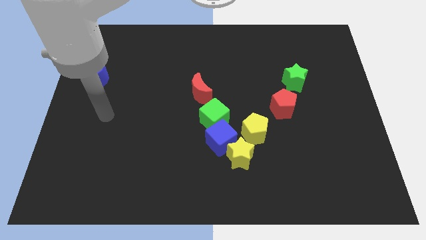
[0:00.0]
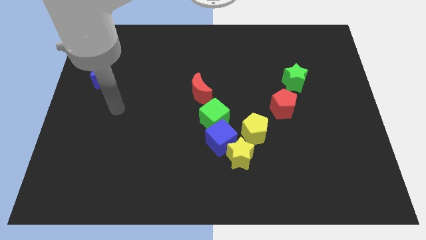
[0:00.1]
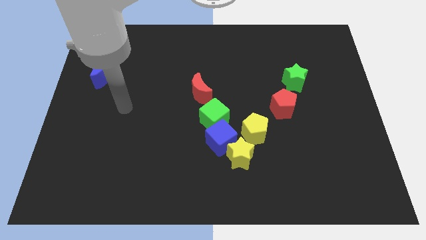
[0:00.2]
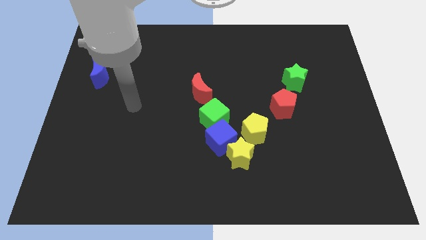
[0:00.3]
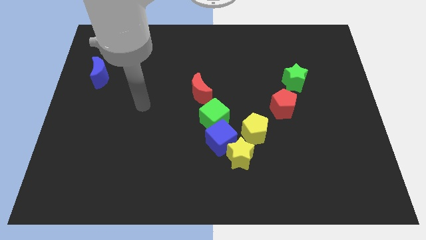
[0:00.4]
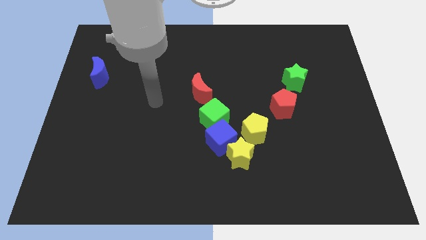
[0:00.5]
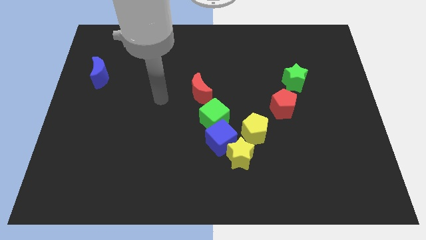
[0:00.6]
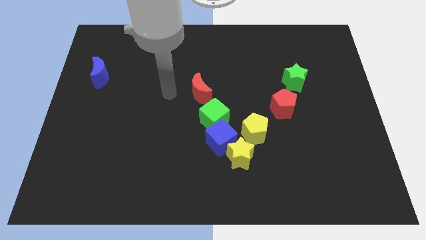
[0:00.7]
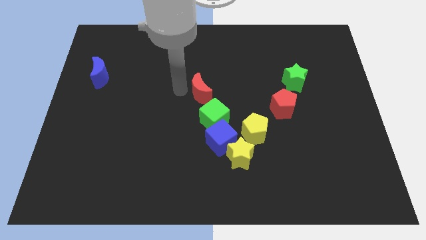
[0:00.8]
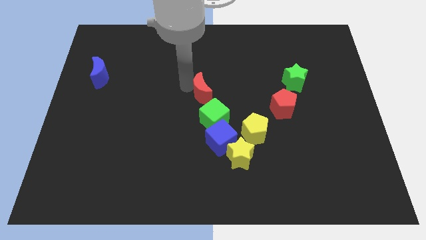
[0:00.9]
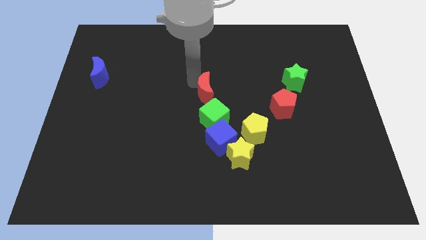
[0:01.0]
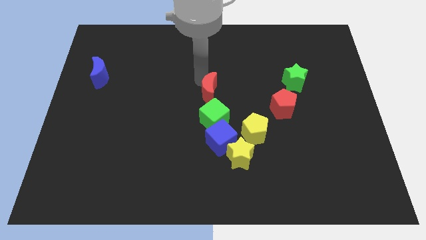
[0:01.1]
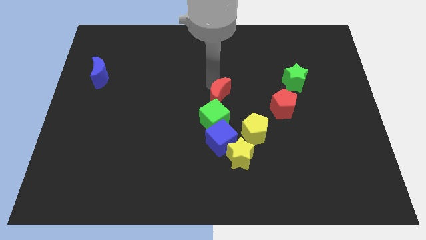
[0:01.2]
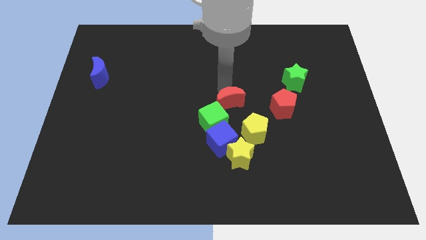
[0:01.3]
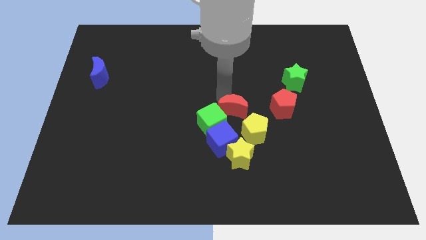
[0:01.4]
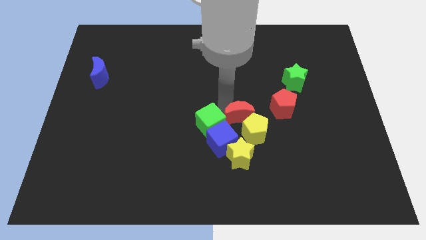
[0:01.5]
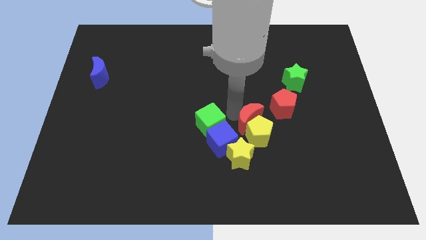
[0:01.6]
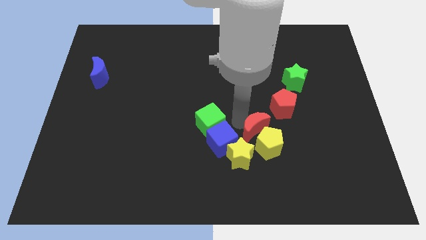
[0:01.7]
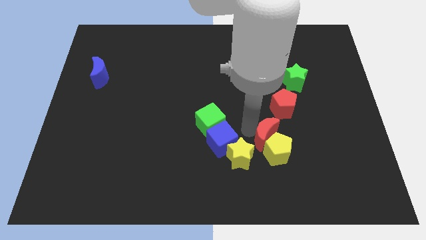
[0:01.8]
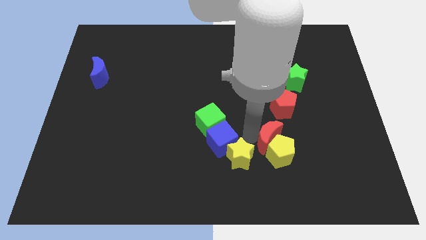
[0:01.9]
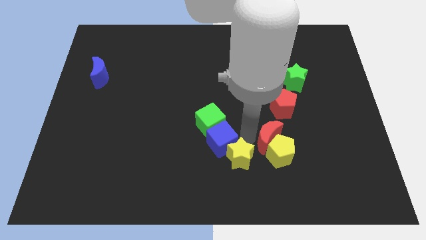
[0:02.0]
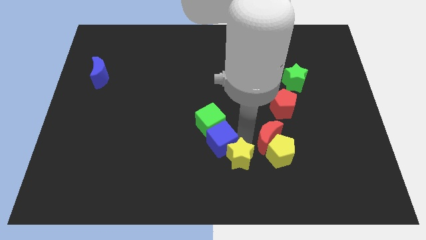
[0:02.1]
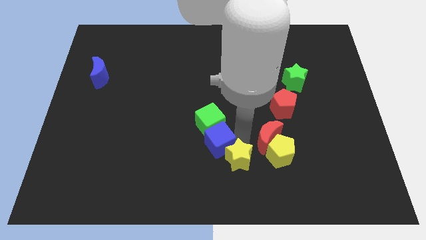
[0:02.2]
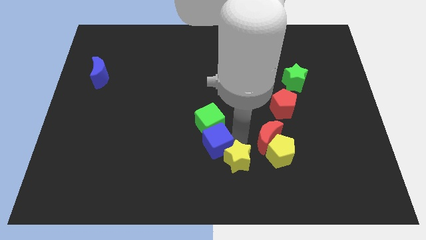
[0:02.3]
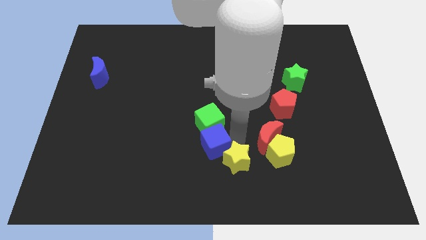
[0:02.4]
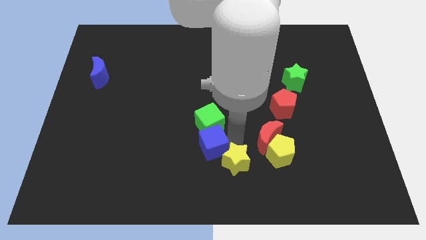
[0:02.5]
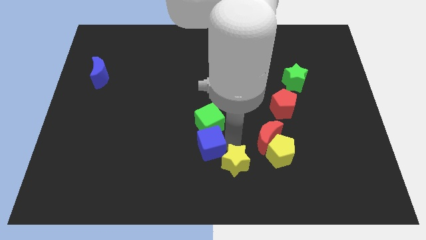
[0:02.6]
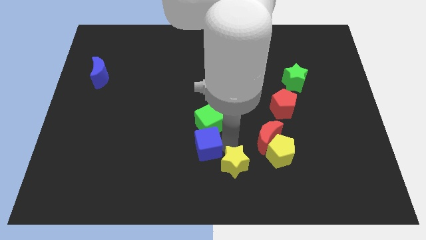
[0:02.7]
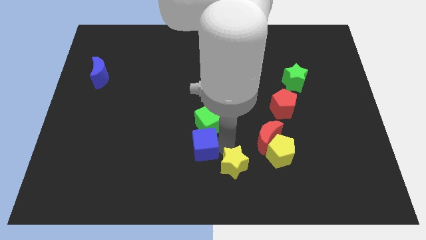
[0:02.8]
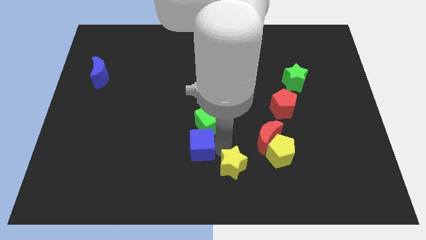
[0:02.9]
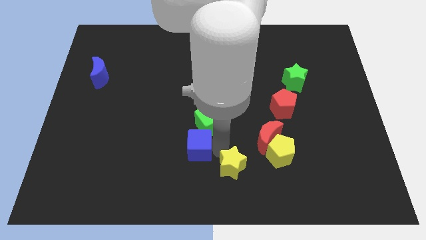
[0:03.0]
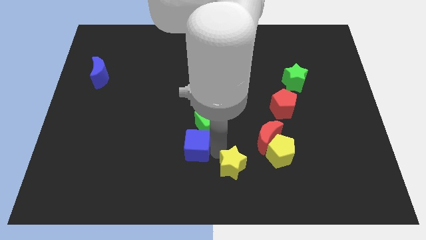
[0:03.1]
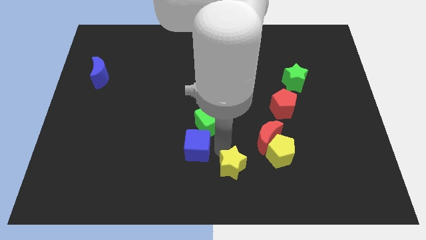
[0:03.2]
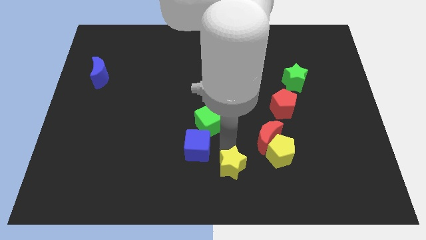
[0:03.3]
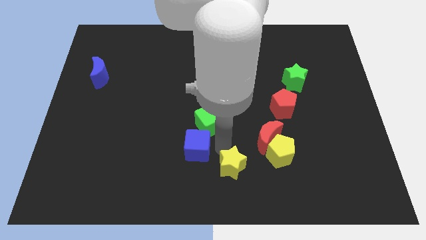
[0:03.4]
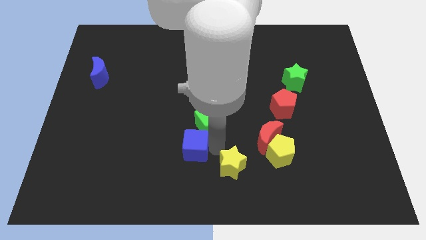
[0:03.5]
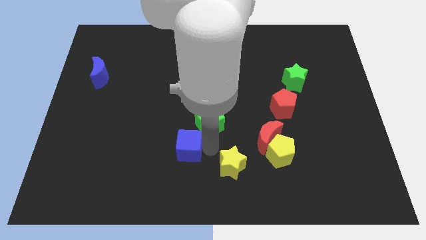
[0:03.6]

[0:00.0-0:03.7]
separate the blue cube from the group of blocks

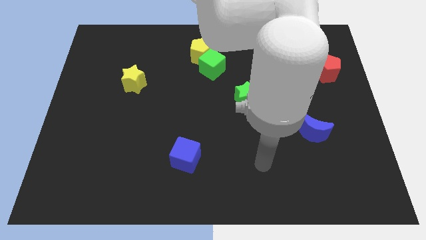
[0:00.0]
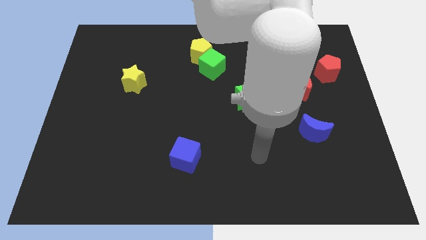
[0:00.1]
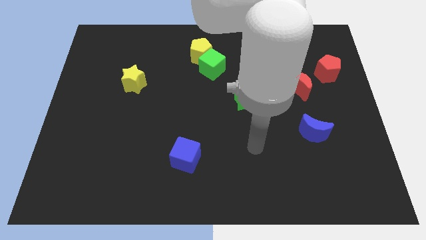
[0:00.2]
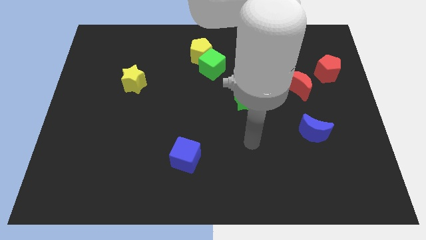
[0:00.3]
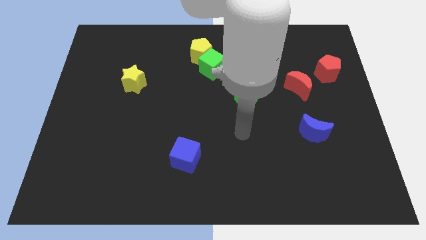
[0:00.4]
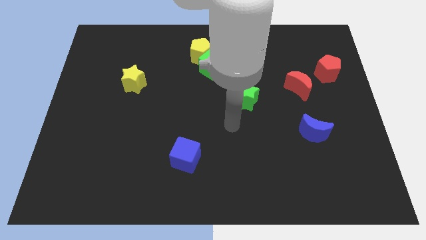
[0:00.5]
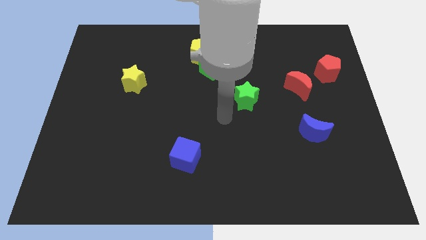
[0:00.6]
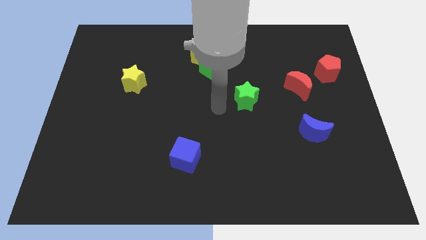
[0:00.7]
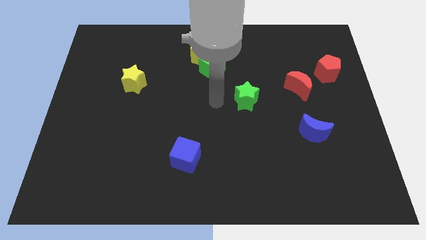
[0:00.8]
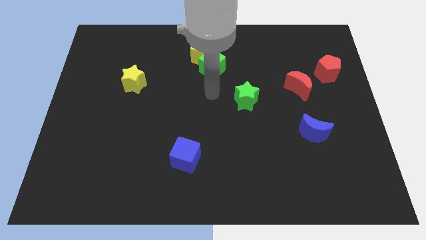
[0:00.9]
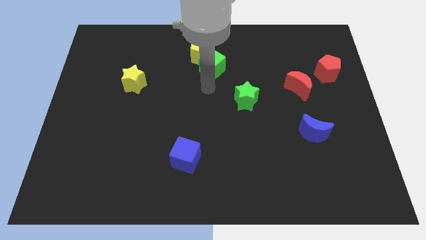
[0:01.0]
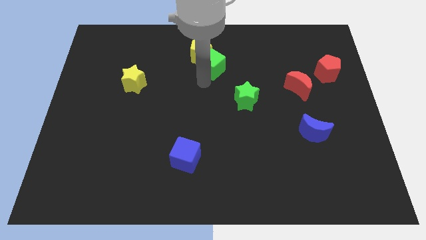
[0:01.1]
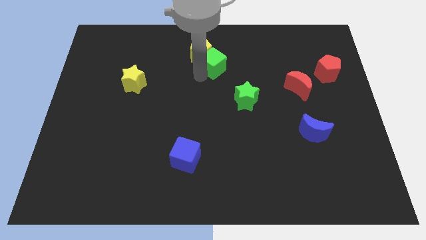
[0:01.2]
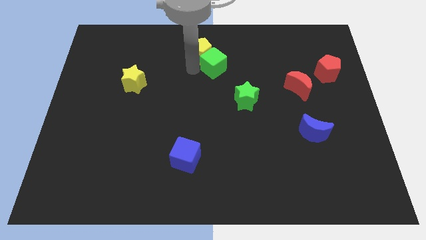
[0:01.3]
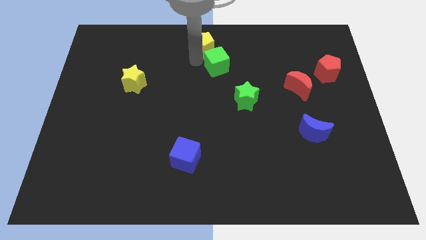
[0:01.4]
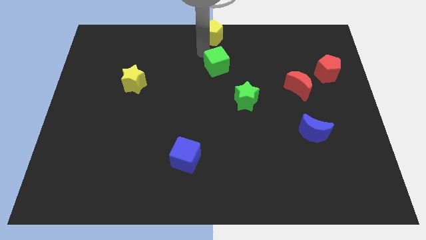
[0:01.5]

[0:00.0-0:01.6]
pull the green cube apart from the yellow pentagon

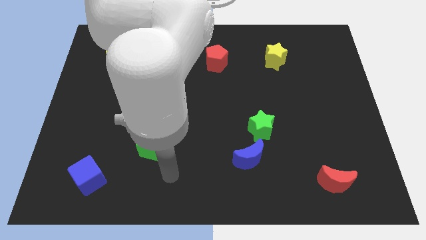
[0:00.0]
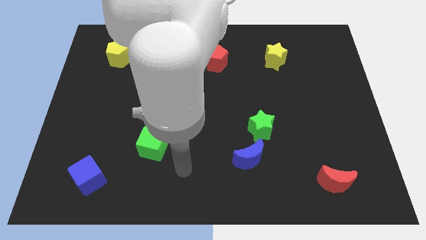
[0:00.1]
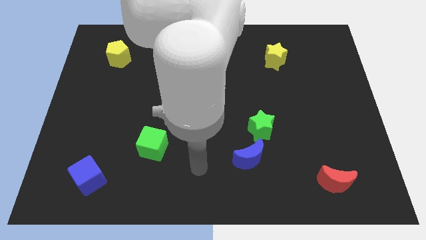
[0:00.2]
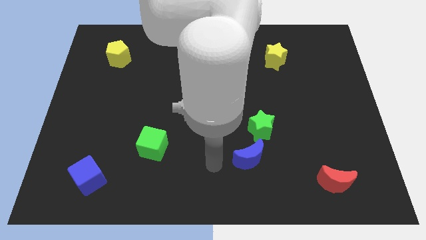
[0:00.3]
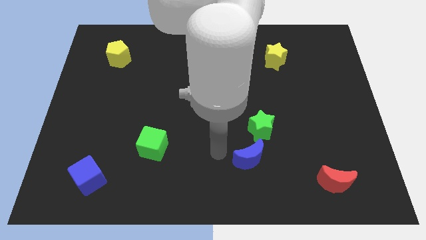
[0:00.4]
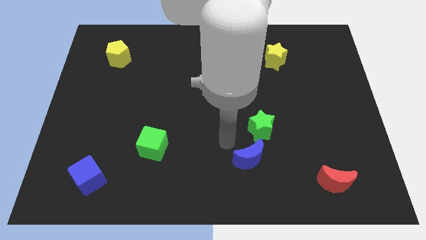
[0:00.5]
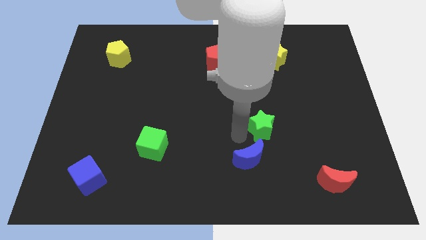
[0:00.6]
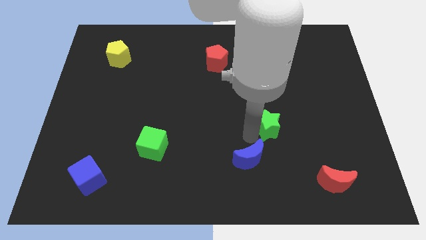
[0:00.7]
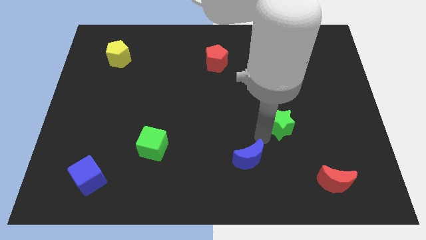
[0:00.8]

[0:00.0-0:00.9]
move the blue moon away from the green star

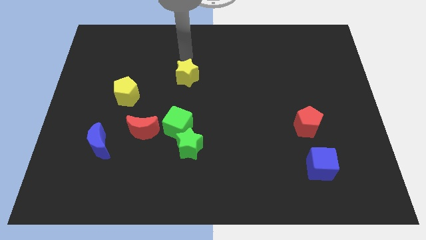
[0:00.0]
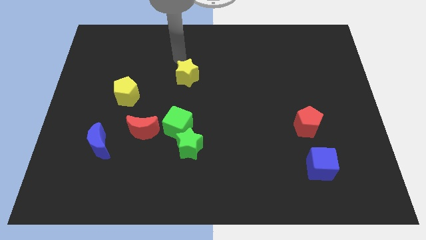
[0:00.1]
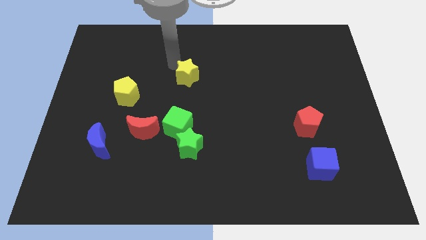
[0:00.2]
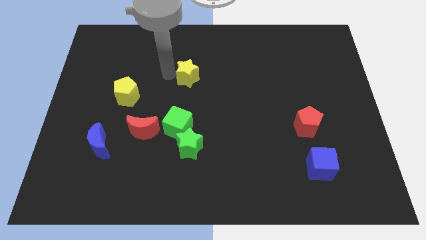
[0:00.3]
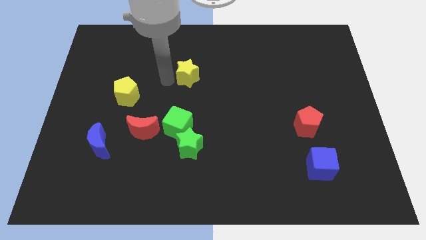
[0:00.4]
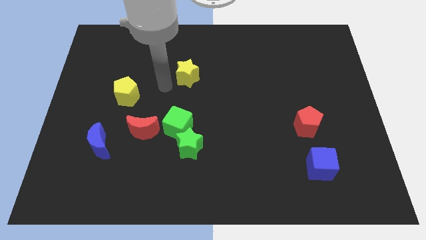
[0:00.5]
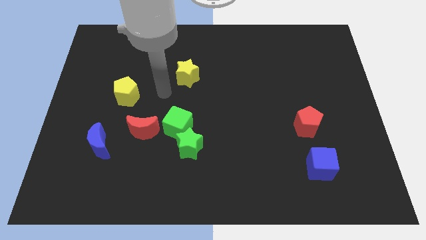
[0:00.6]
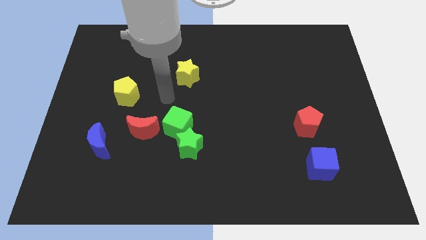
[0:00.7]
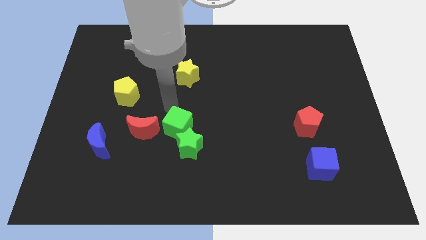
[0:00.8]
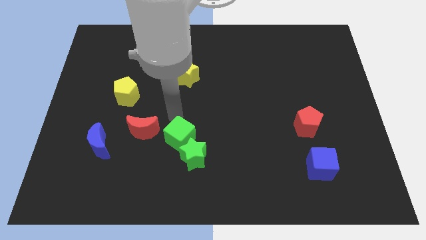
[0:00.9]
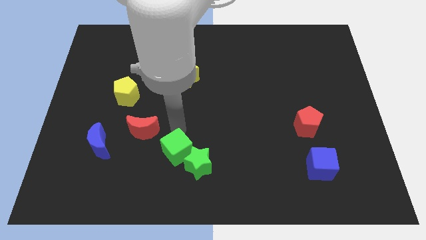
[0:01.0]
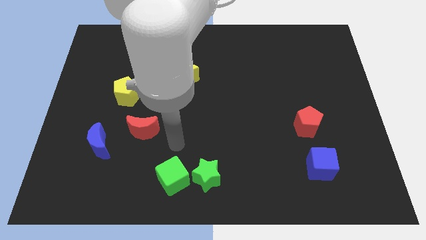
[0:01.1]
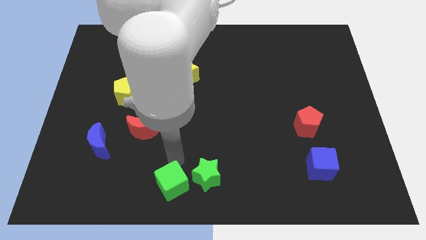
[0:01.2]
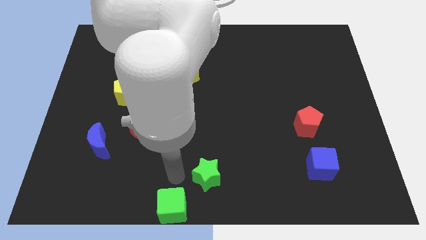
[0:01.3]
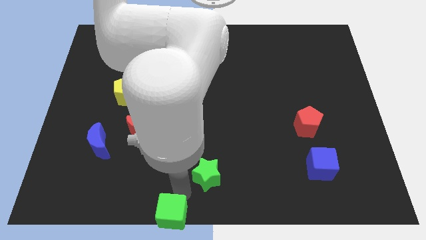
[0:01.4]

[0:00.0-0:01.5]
pull the green star apart from the green cube

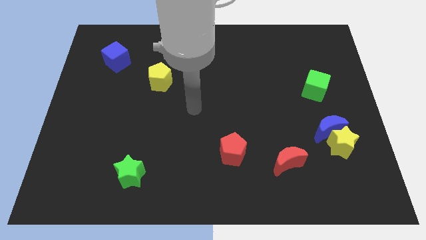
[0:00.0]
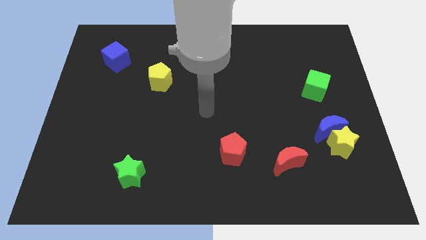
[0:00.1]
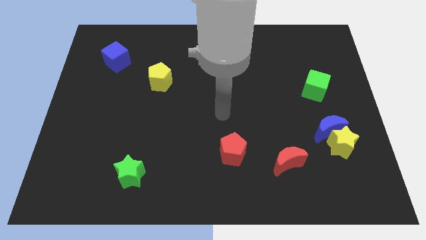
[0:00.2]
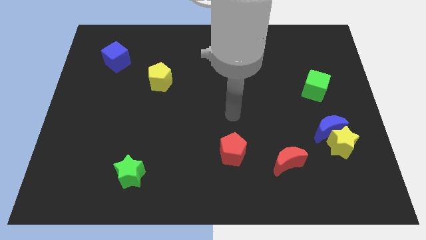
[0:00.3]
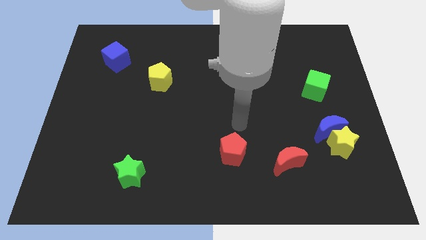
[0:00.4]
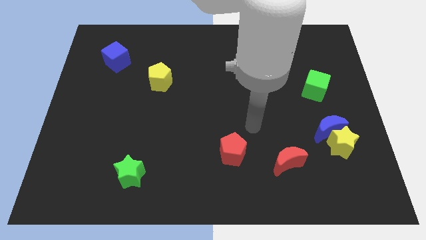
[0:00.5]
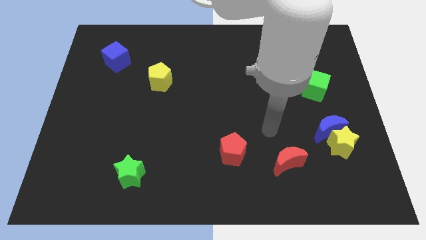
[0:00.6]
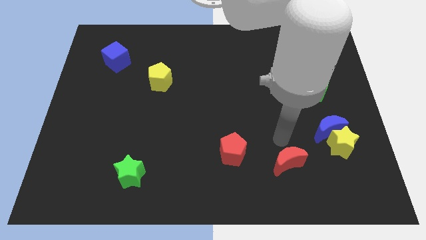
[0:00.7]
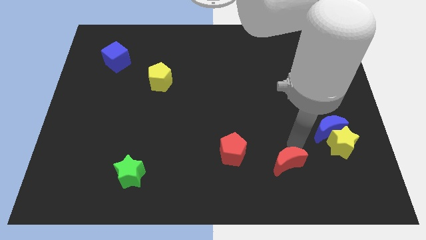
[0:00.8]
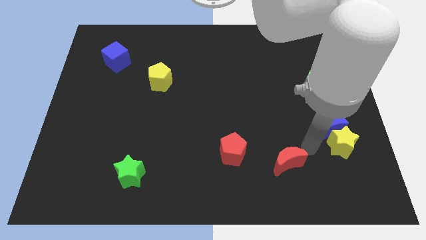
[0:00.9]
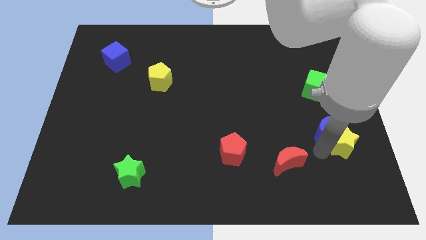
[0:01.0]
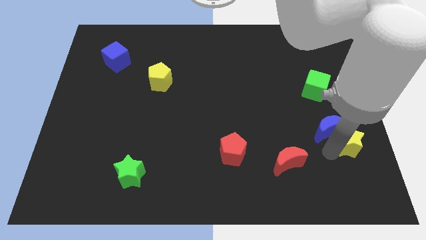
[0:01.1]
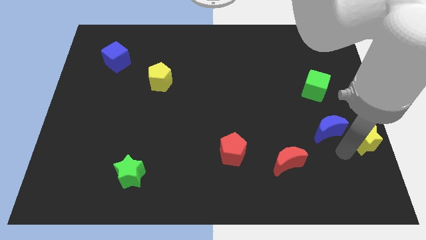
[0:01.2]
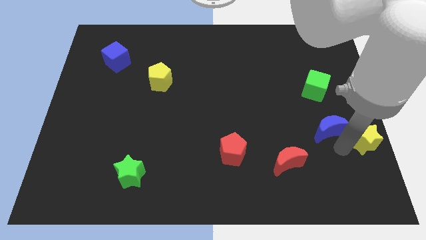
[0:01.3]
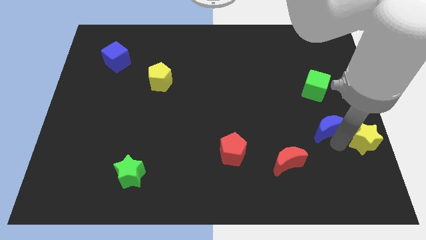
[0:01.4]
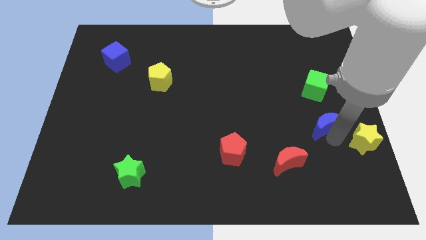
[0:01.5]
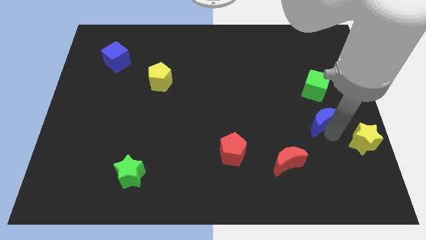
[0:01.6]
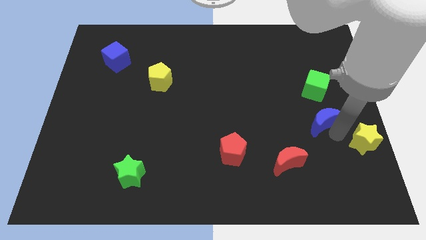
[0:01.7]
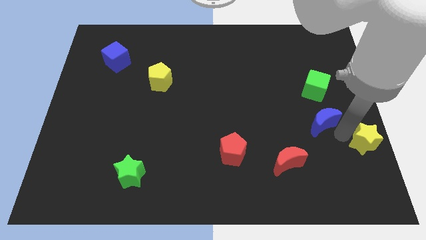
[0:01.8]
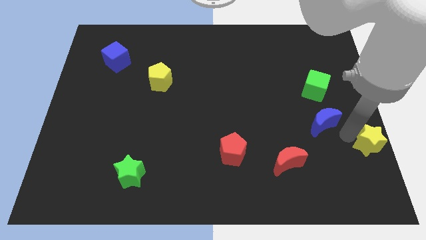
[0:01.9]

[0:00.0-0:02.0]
separate the blue moon from the yellow star
